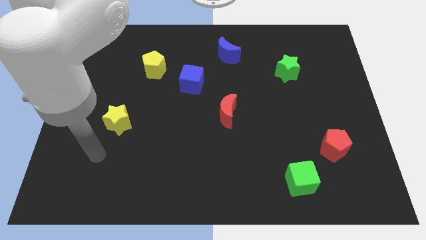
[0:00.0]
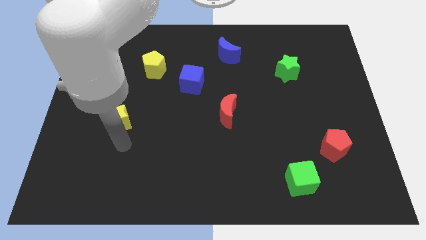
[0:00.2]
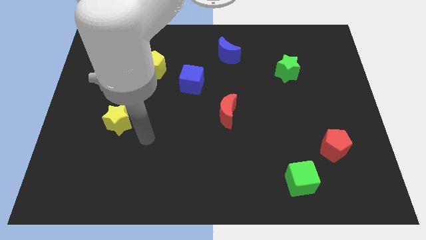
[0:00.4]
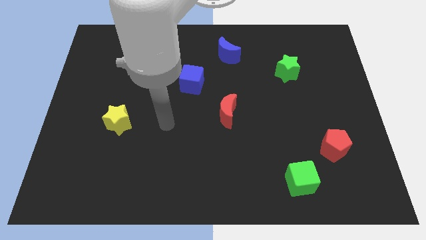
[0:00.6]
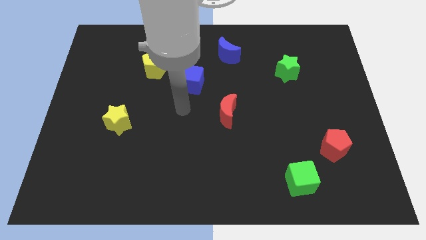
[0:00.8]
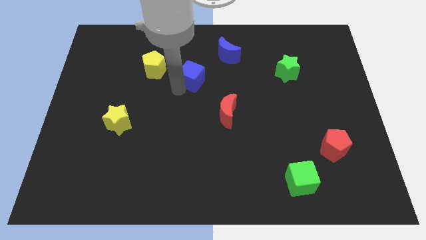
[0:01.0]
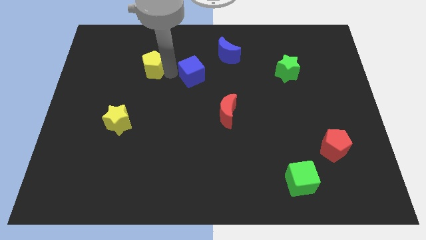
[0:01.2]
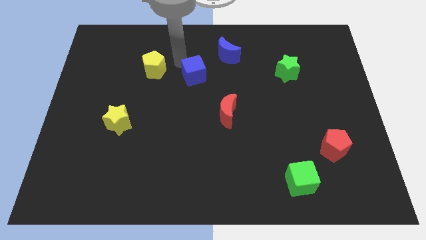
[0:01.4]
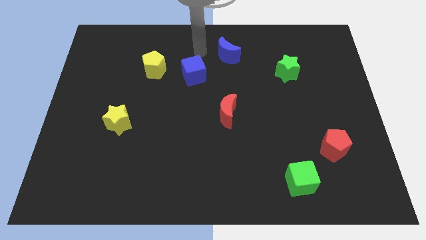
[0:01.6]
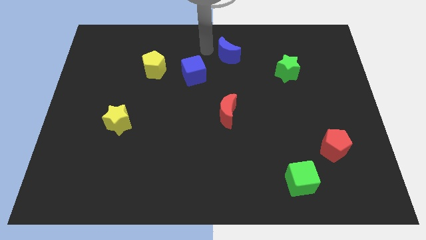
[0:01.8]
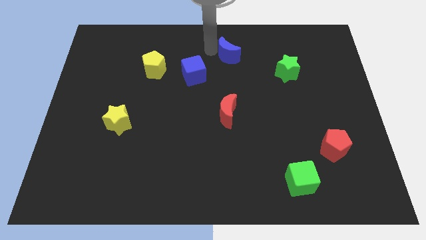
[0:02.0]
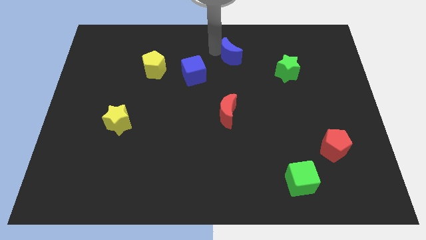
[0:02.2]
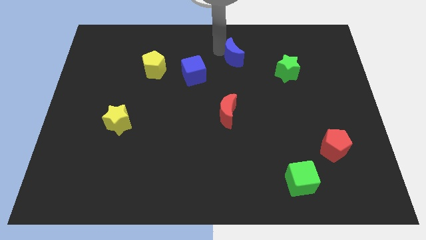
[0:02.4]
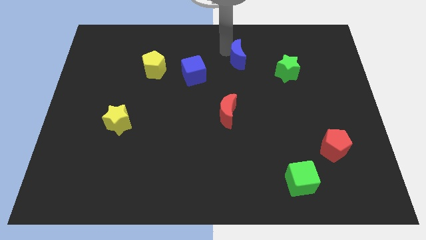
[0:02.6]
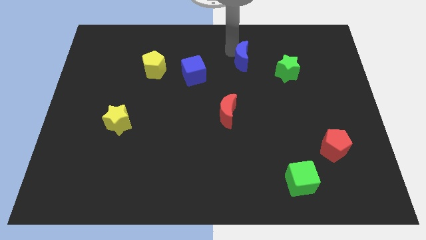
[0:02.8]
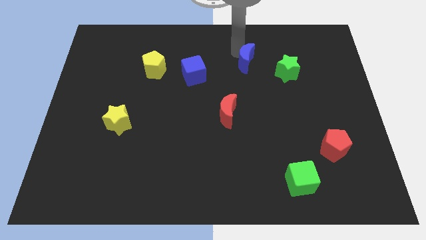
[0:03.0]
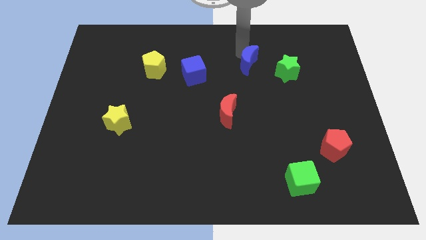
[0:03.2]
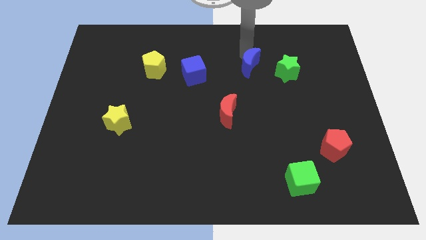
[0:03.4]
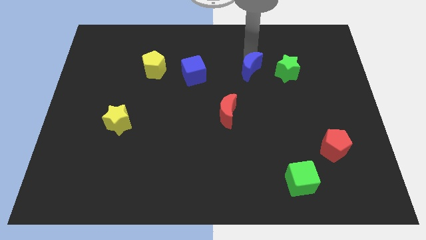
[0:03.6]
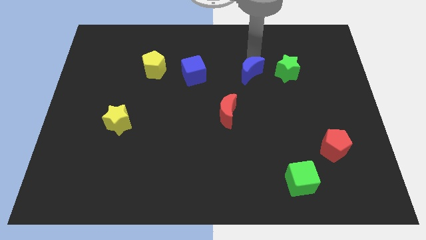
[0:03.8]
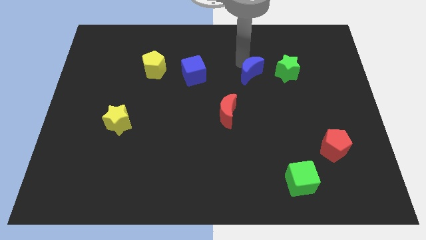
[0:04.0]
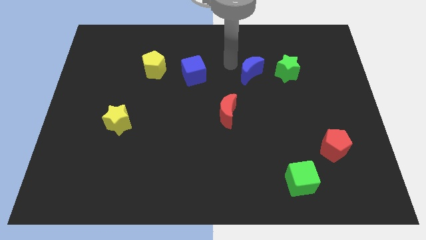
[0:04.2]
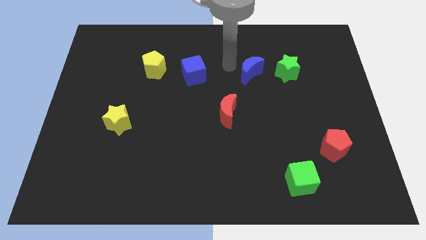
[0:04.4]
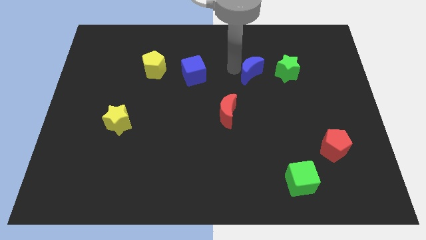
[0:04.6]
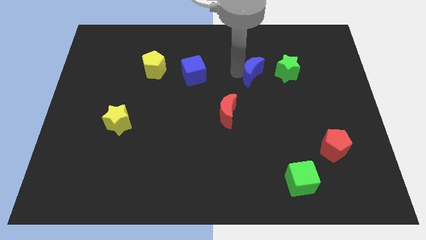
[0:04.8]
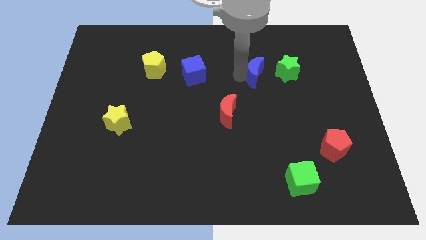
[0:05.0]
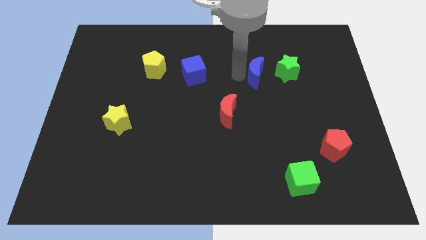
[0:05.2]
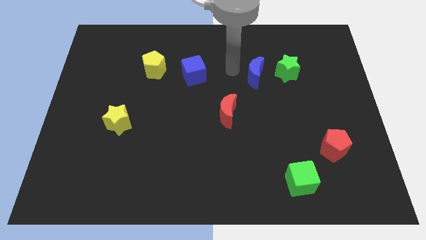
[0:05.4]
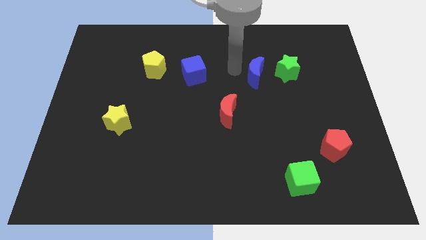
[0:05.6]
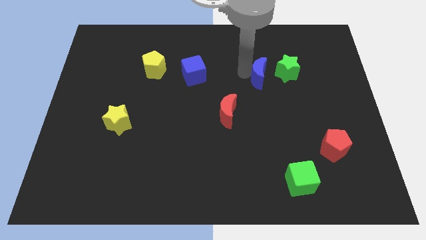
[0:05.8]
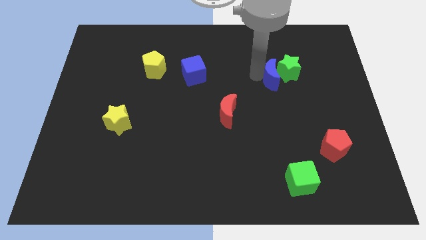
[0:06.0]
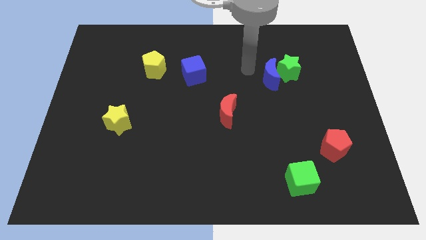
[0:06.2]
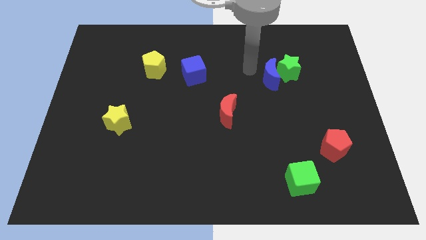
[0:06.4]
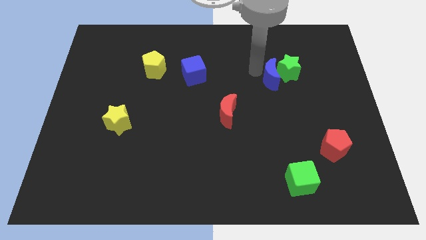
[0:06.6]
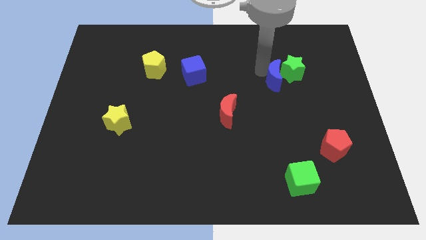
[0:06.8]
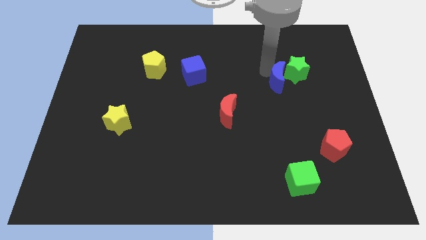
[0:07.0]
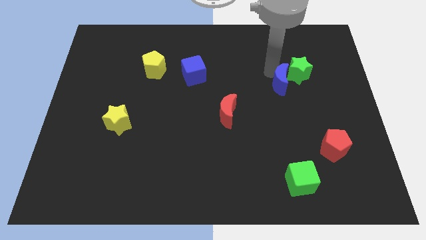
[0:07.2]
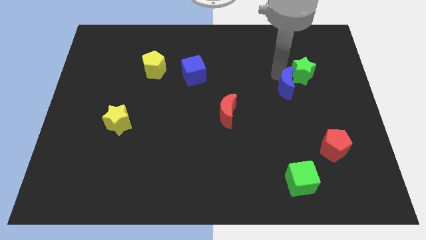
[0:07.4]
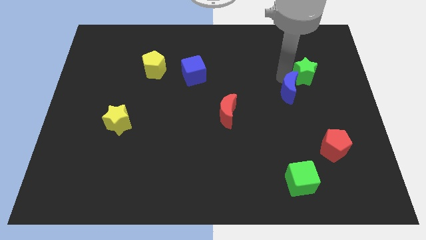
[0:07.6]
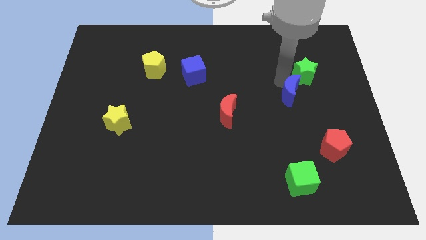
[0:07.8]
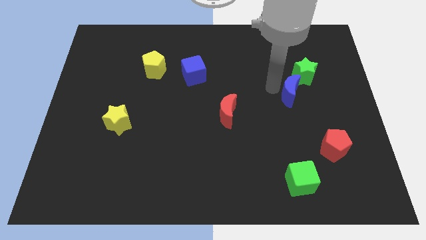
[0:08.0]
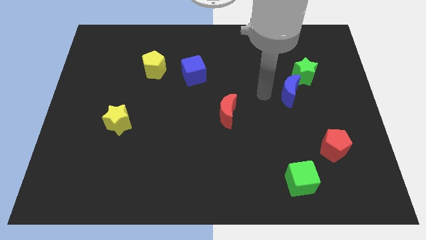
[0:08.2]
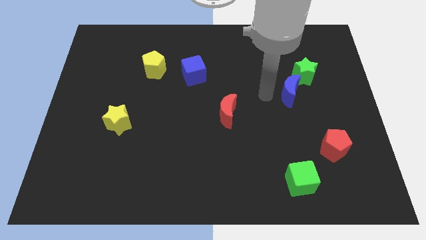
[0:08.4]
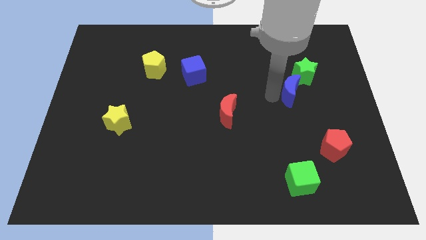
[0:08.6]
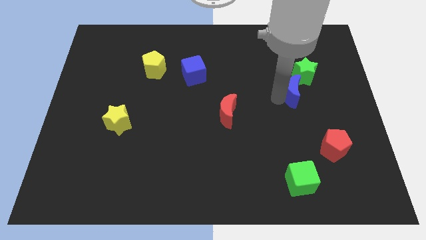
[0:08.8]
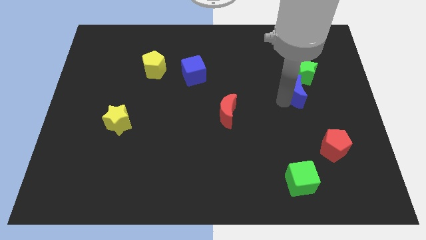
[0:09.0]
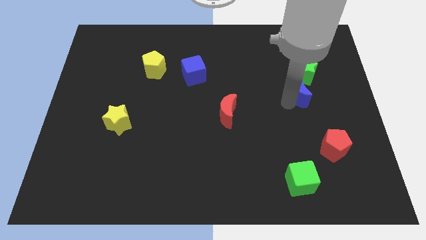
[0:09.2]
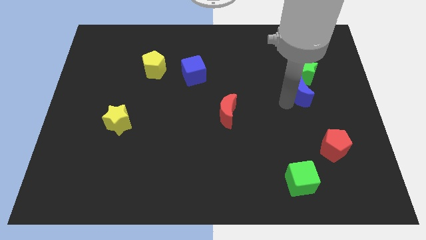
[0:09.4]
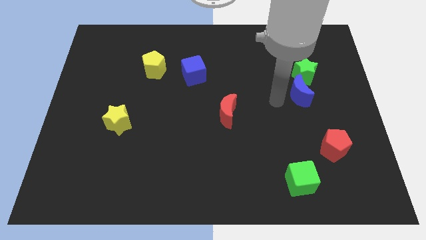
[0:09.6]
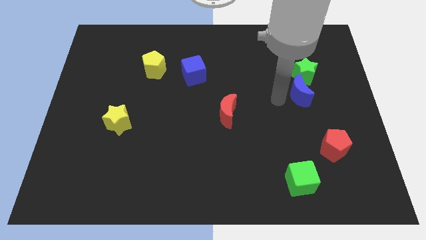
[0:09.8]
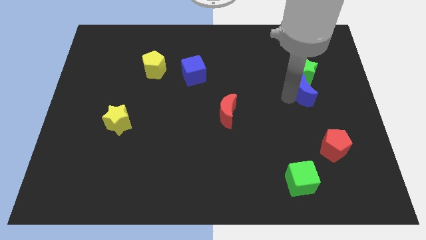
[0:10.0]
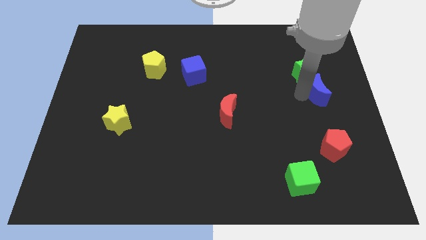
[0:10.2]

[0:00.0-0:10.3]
move the blue moon to the right side of the board

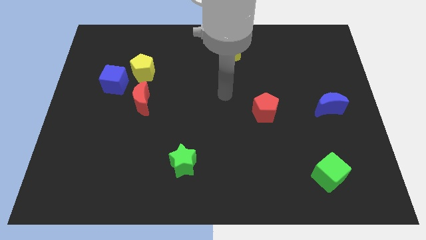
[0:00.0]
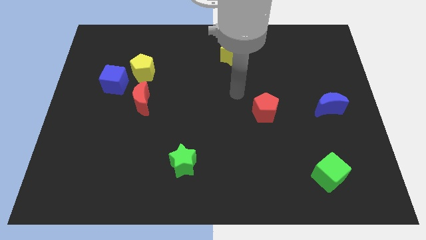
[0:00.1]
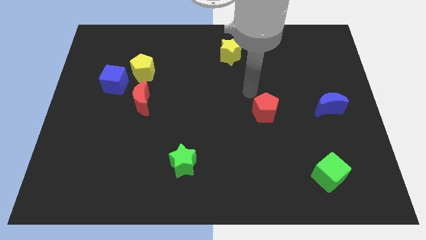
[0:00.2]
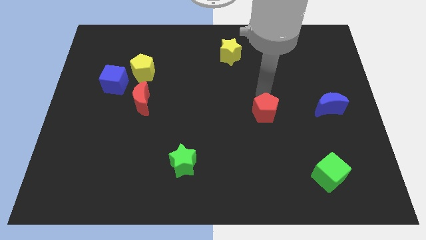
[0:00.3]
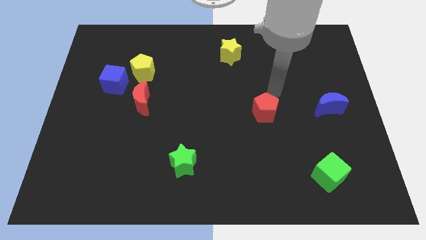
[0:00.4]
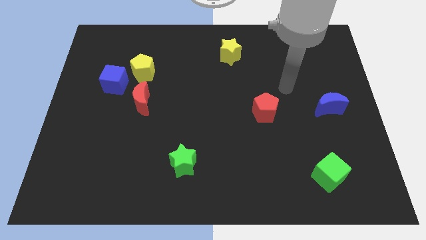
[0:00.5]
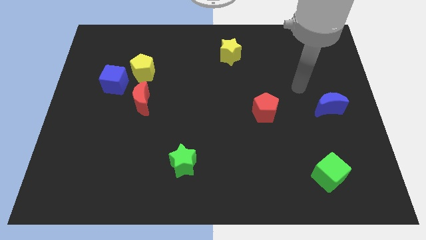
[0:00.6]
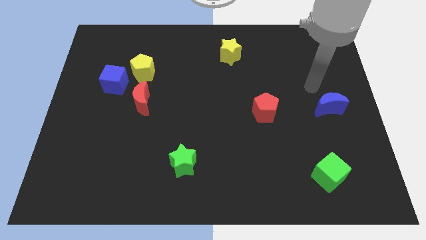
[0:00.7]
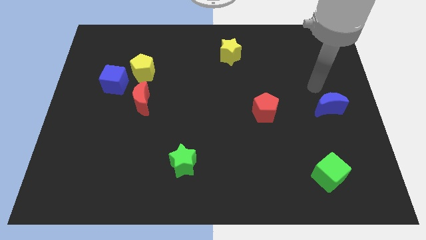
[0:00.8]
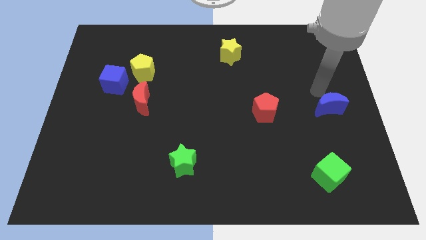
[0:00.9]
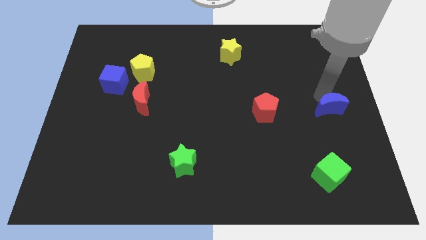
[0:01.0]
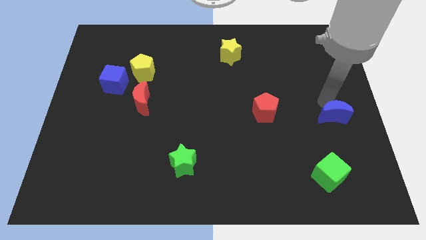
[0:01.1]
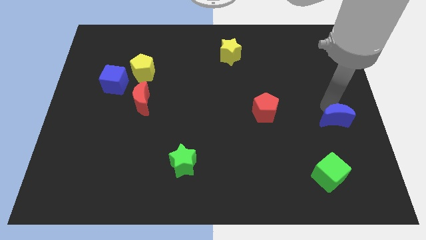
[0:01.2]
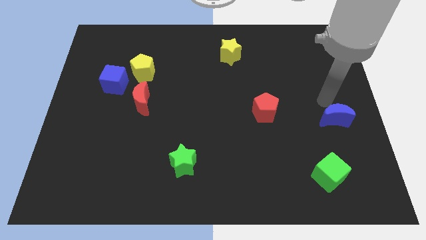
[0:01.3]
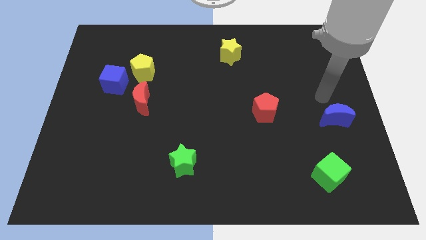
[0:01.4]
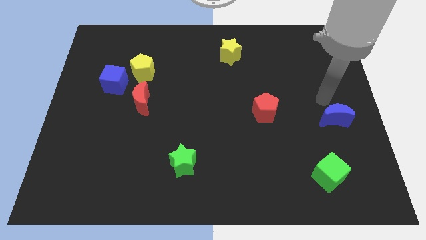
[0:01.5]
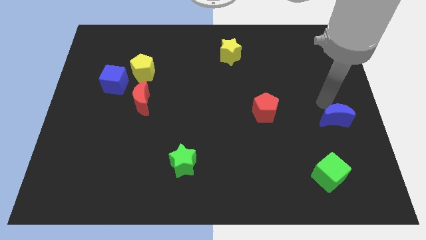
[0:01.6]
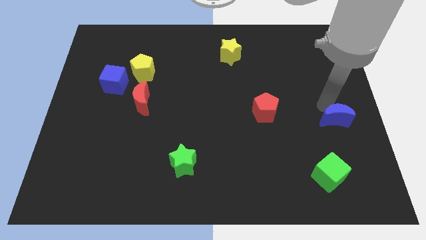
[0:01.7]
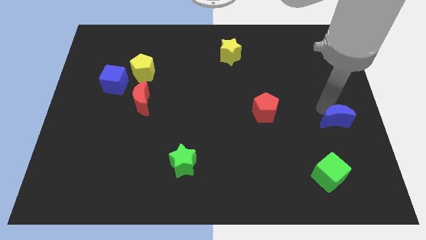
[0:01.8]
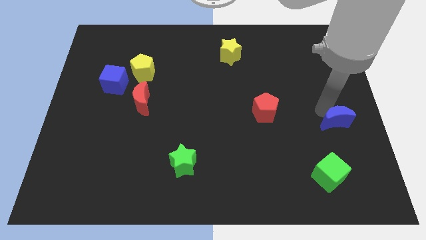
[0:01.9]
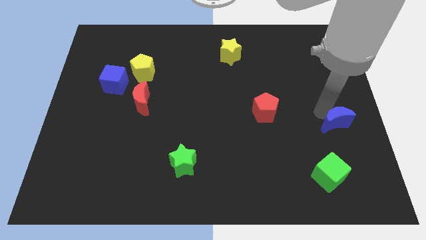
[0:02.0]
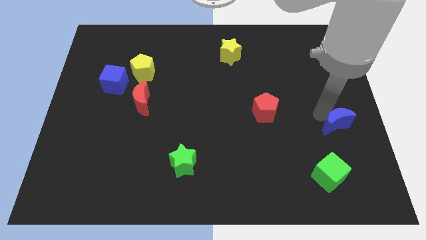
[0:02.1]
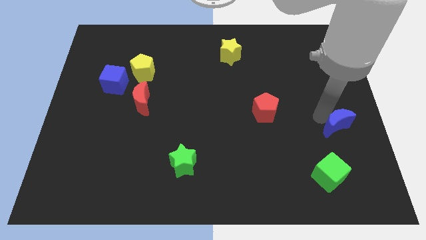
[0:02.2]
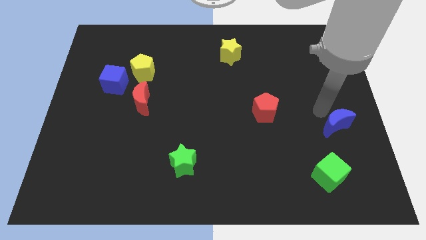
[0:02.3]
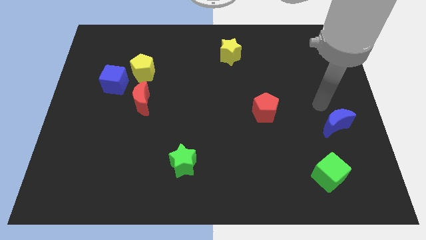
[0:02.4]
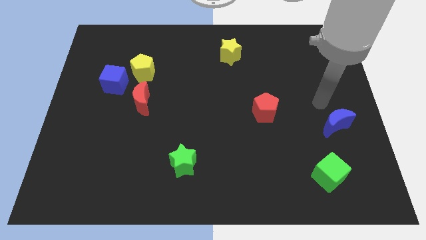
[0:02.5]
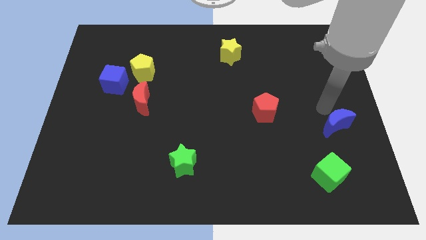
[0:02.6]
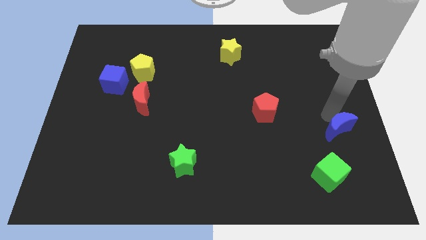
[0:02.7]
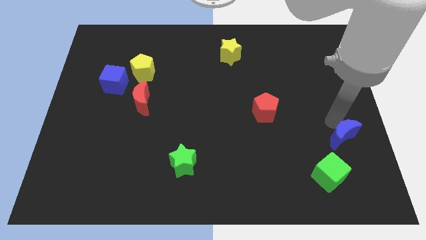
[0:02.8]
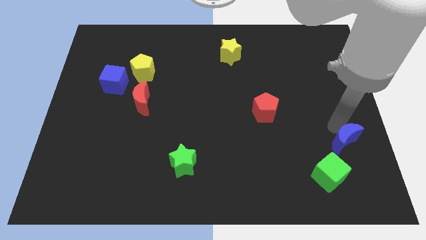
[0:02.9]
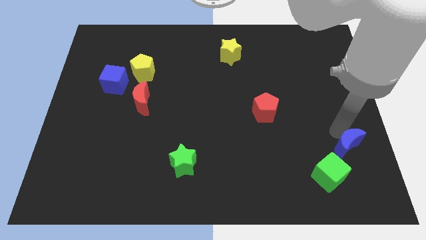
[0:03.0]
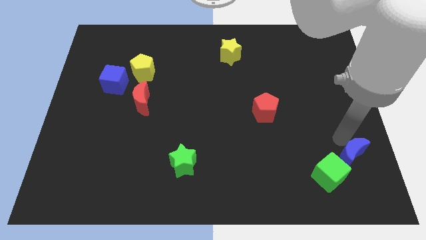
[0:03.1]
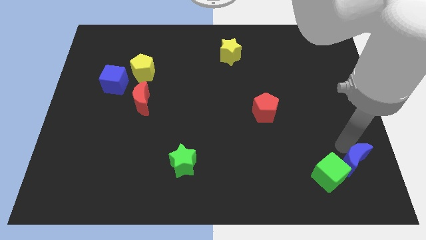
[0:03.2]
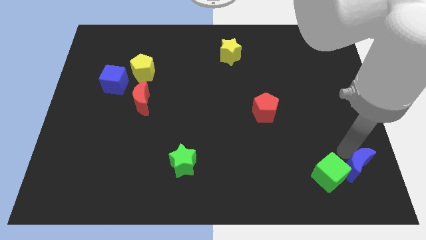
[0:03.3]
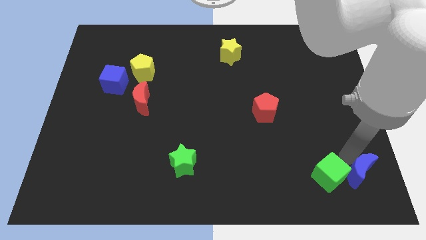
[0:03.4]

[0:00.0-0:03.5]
push the blue moon to the bottom right corner
